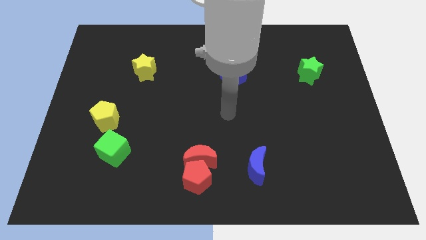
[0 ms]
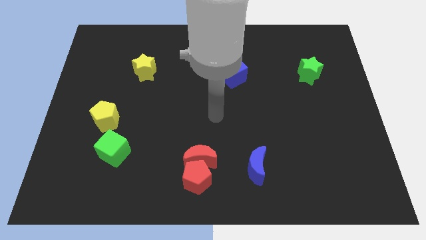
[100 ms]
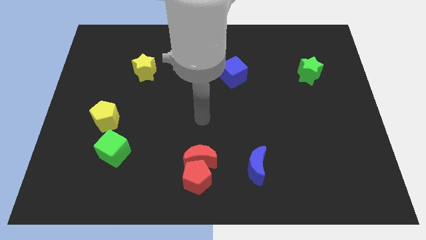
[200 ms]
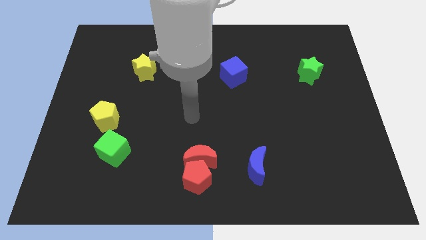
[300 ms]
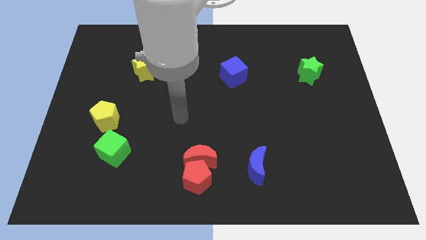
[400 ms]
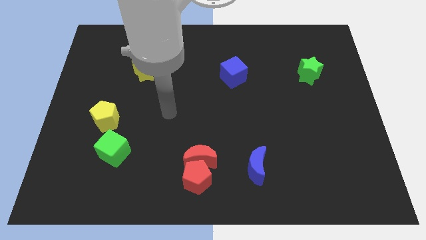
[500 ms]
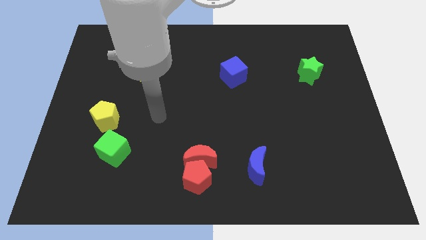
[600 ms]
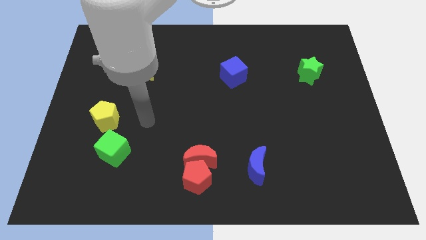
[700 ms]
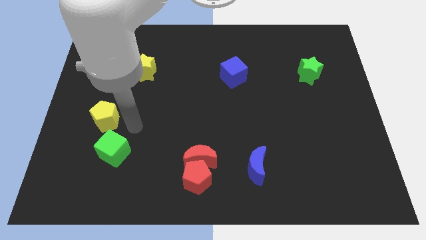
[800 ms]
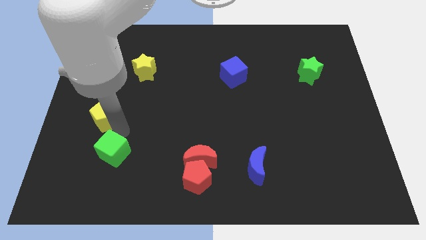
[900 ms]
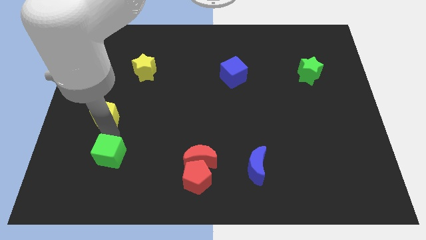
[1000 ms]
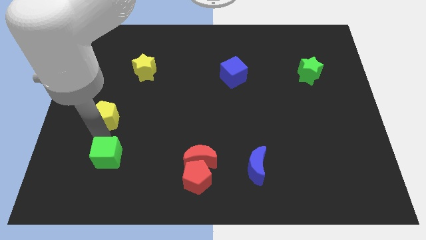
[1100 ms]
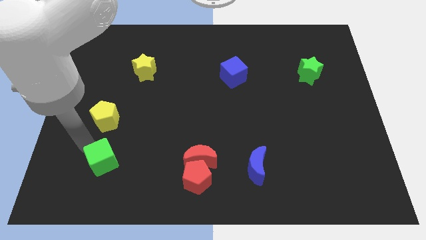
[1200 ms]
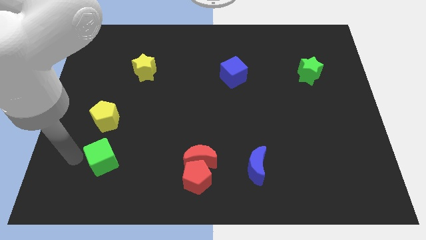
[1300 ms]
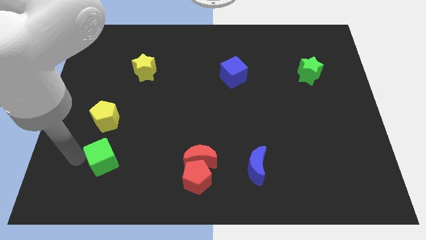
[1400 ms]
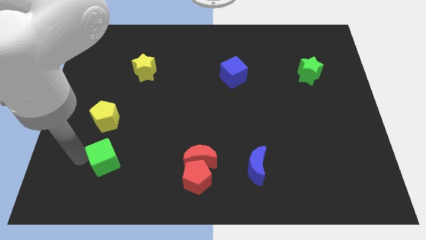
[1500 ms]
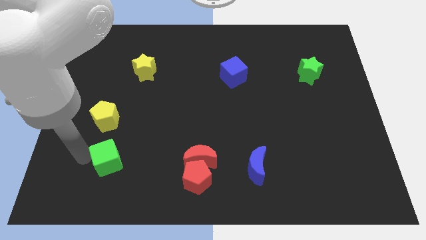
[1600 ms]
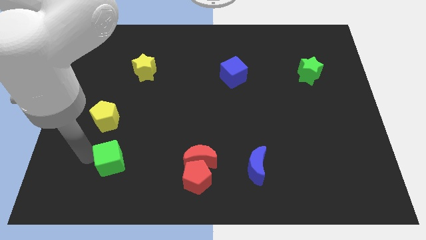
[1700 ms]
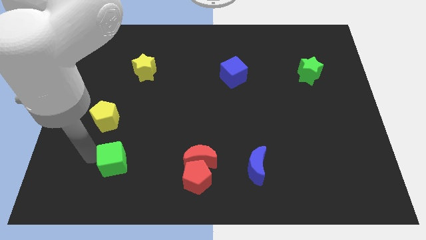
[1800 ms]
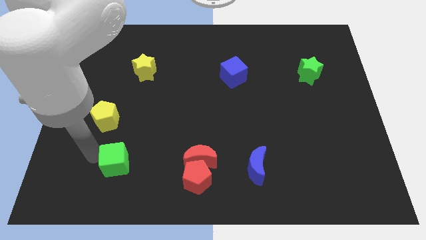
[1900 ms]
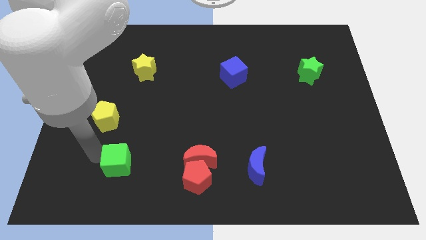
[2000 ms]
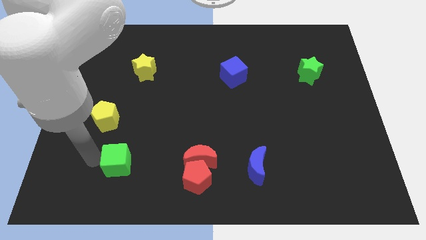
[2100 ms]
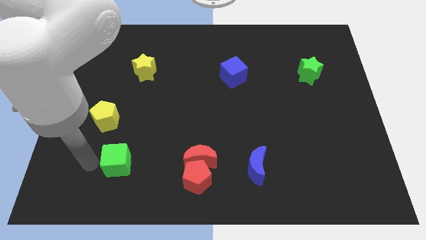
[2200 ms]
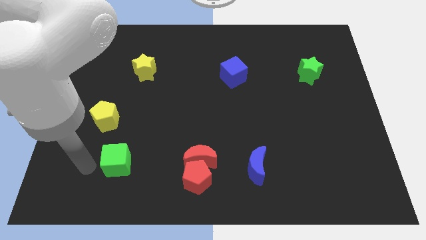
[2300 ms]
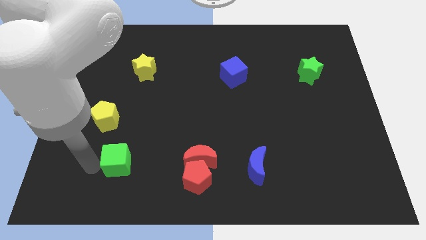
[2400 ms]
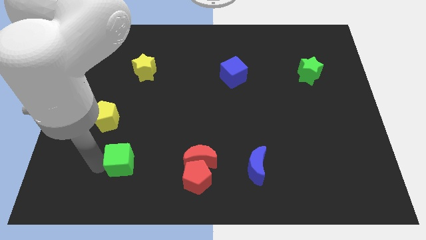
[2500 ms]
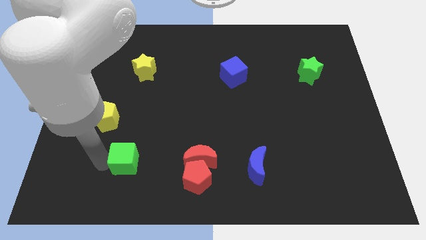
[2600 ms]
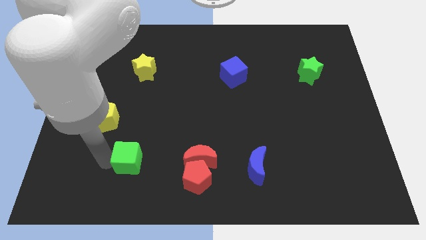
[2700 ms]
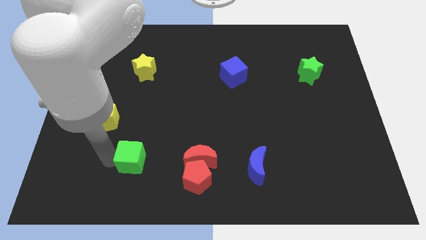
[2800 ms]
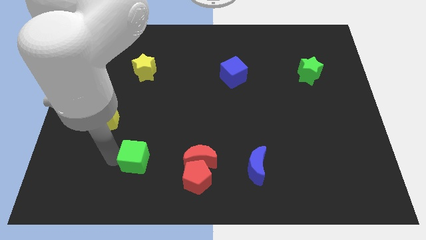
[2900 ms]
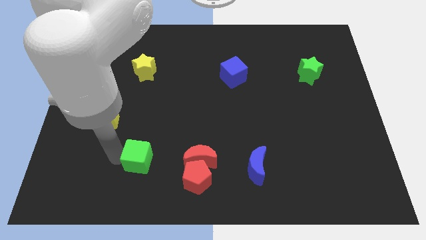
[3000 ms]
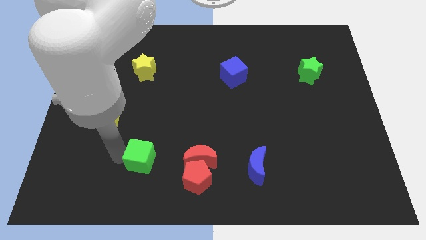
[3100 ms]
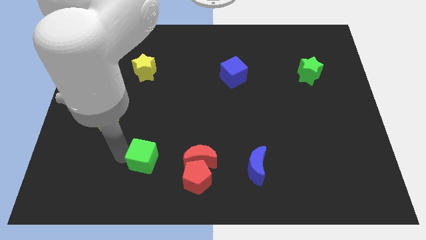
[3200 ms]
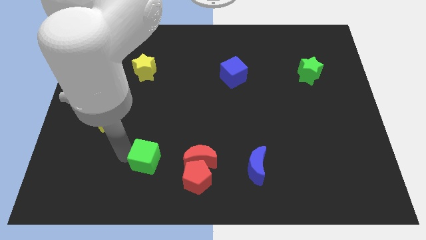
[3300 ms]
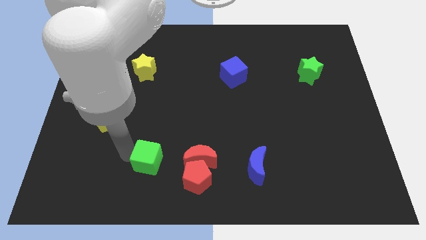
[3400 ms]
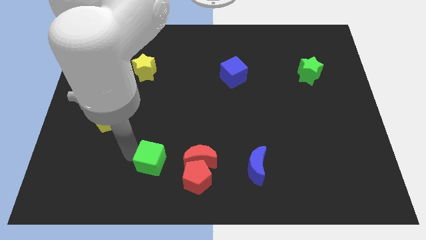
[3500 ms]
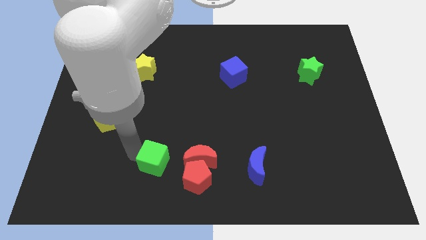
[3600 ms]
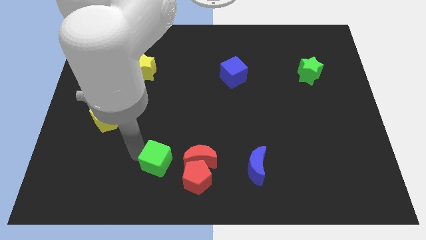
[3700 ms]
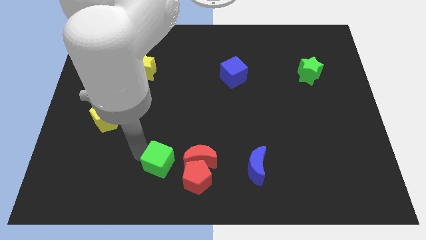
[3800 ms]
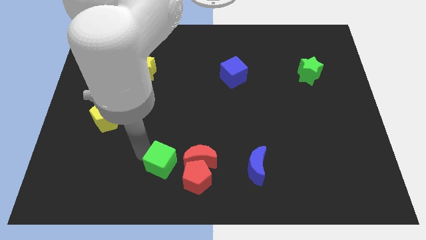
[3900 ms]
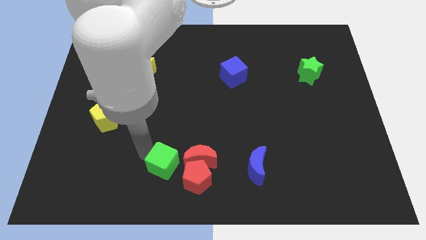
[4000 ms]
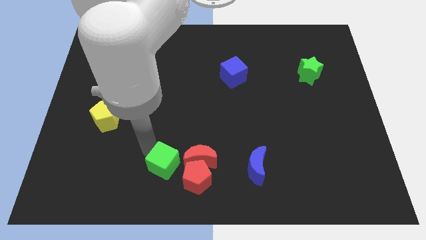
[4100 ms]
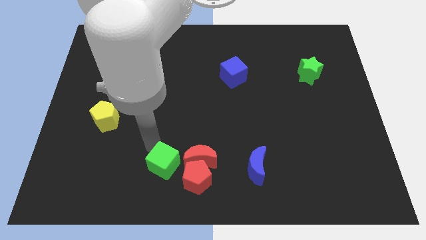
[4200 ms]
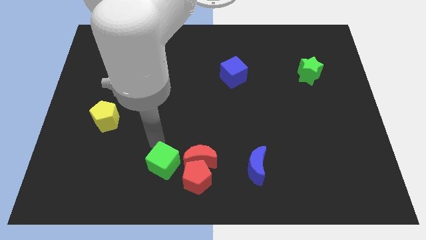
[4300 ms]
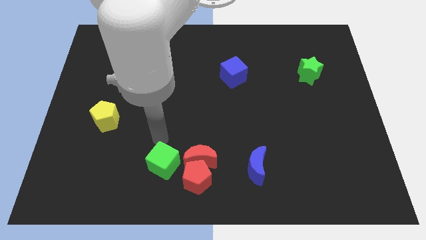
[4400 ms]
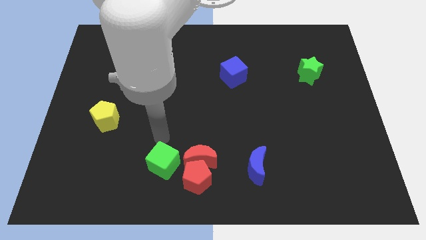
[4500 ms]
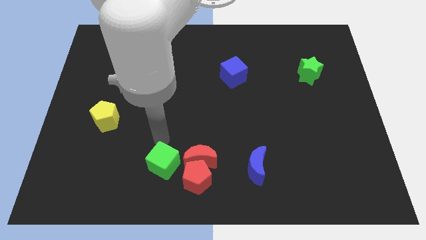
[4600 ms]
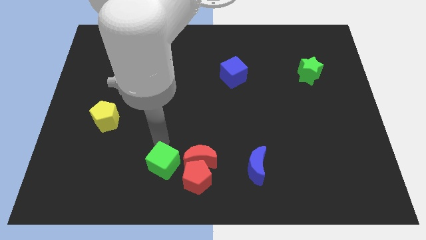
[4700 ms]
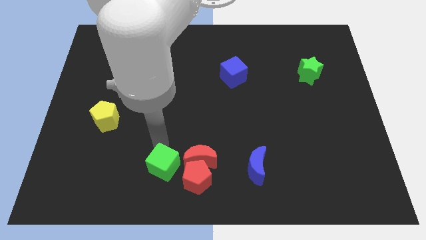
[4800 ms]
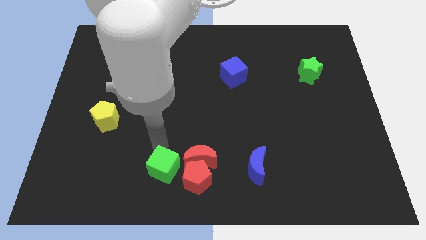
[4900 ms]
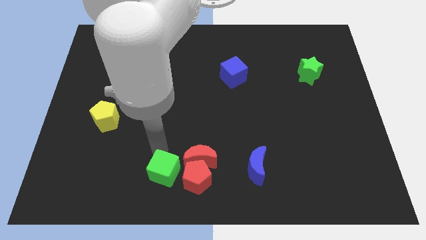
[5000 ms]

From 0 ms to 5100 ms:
move the green cube to the bottom

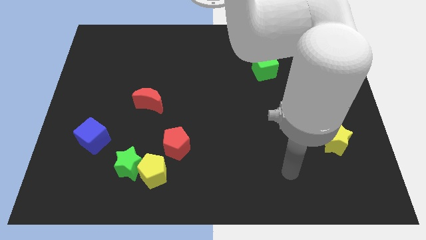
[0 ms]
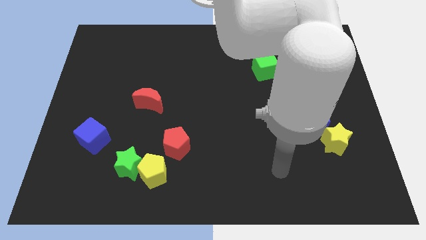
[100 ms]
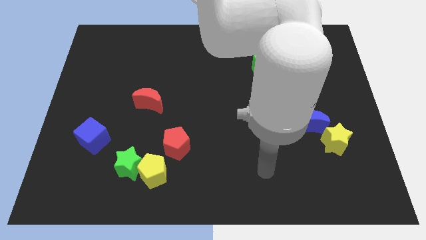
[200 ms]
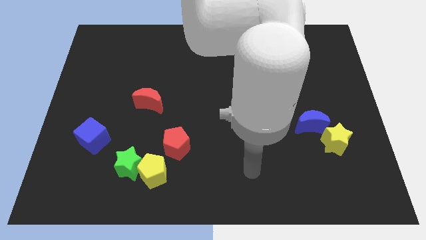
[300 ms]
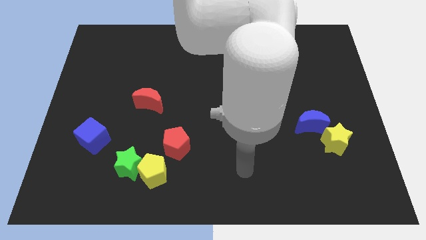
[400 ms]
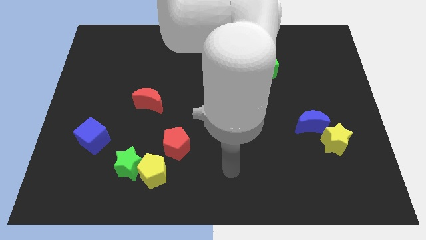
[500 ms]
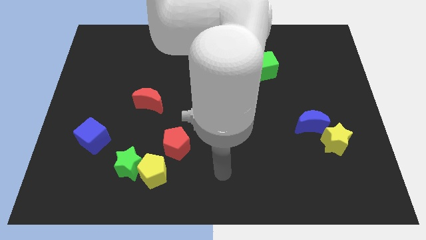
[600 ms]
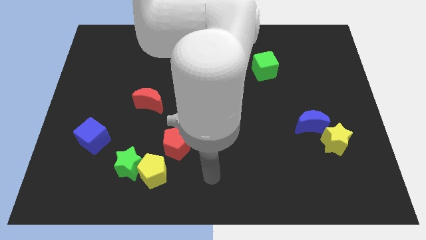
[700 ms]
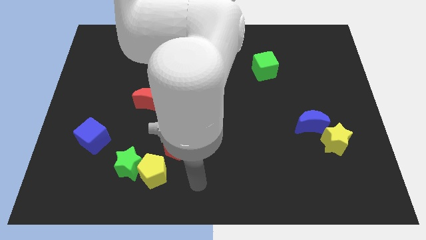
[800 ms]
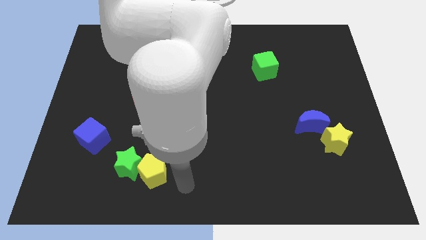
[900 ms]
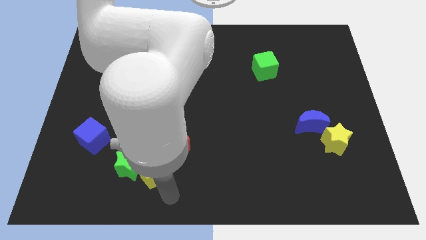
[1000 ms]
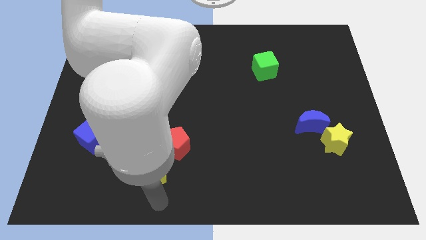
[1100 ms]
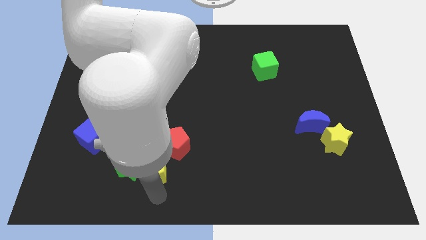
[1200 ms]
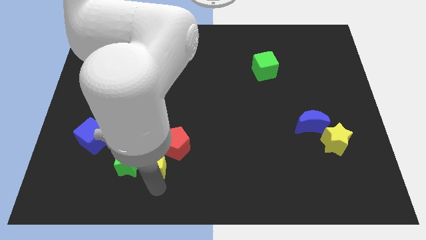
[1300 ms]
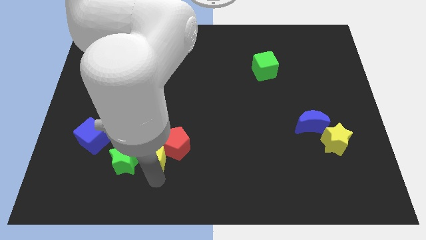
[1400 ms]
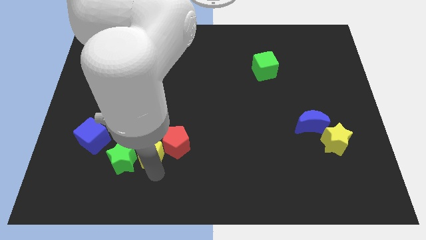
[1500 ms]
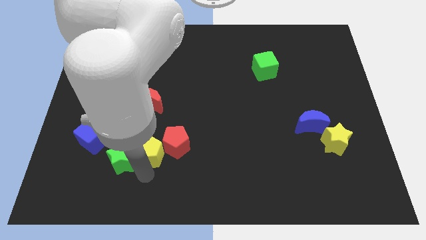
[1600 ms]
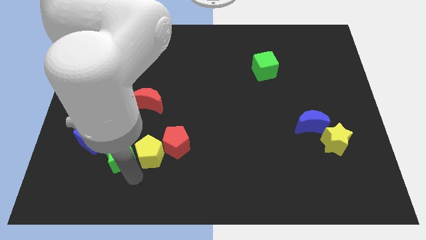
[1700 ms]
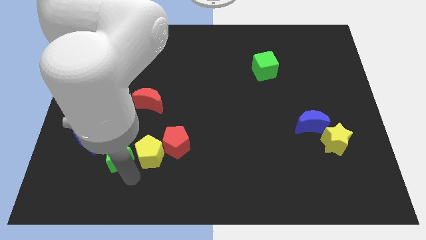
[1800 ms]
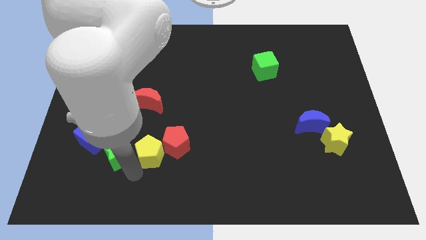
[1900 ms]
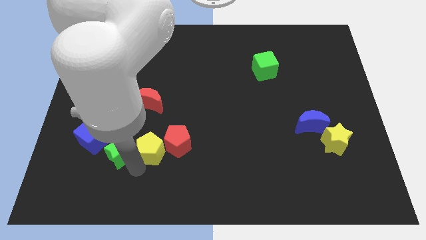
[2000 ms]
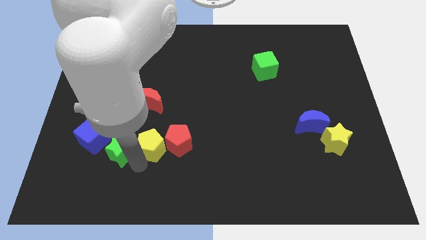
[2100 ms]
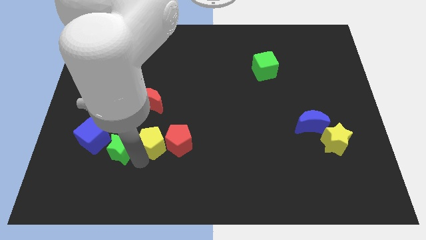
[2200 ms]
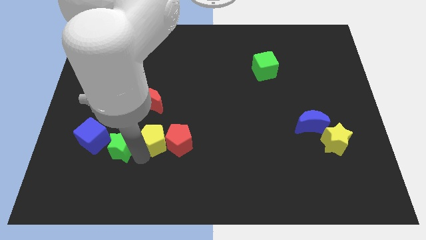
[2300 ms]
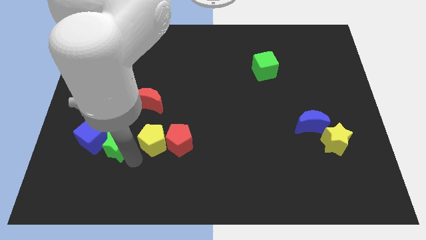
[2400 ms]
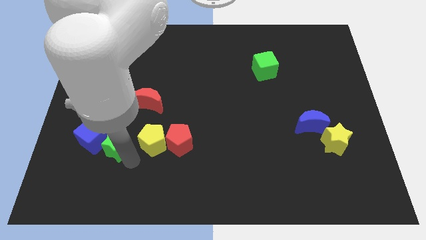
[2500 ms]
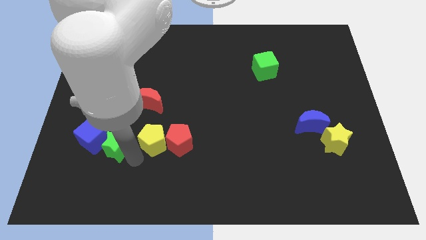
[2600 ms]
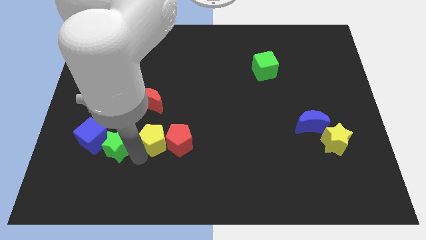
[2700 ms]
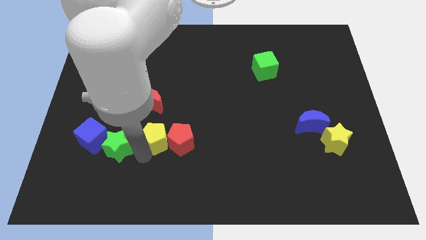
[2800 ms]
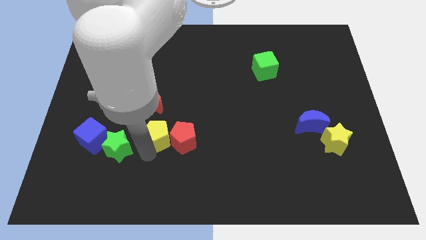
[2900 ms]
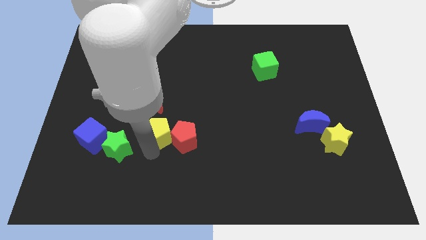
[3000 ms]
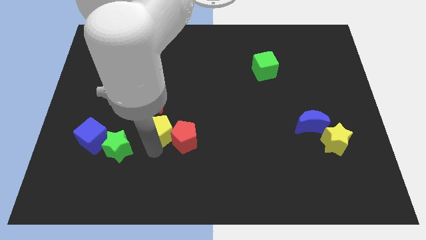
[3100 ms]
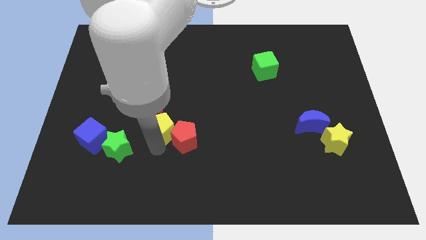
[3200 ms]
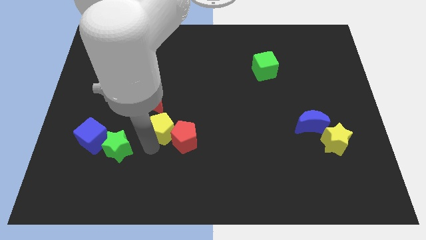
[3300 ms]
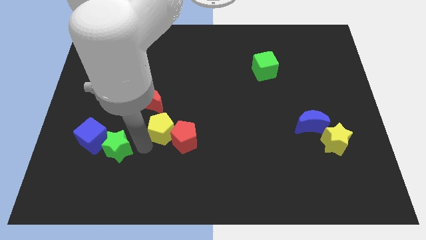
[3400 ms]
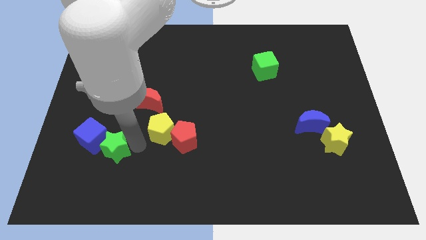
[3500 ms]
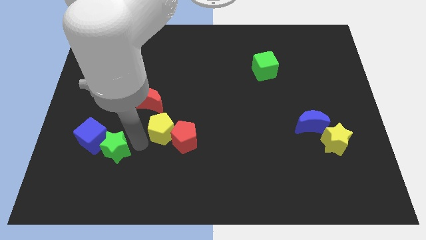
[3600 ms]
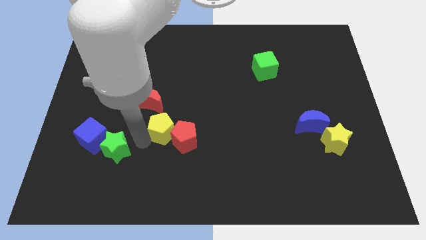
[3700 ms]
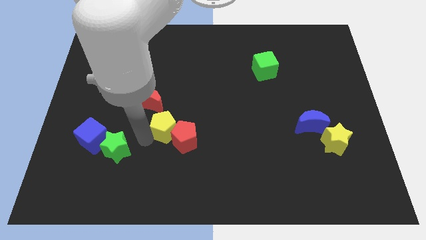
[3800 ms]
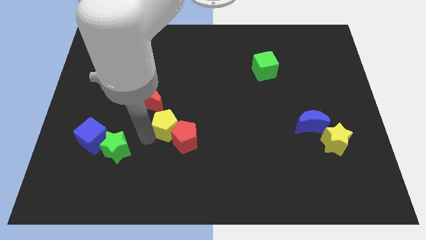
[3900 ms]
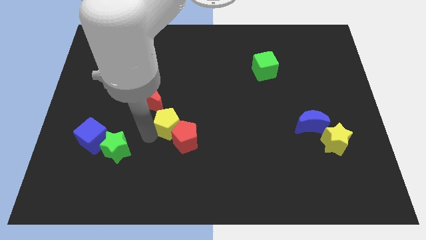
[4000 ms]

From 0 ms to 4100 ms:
put the yellow pentagon to the center
